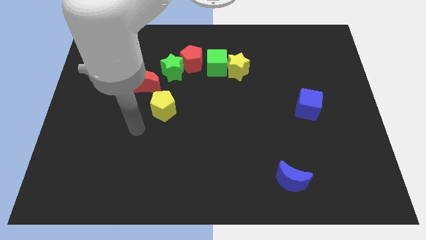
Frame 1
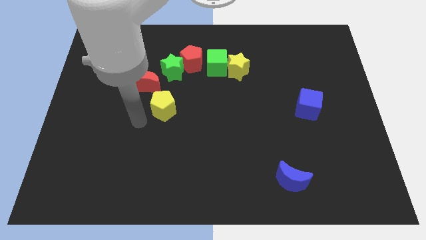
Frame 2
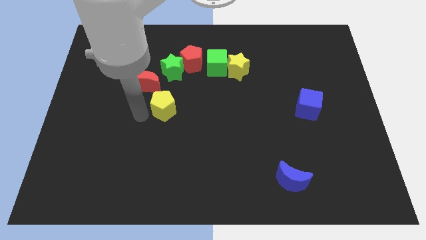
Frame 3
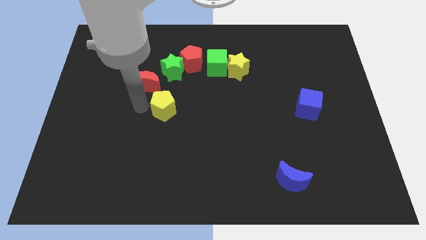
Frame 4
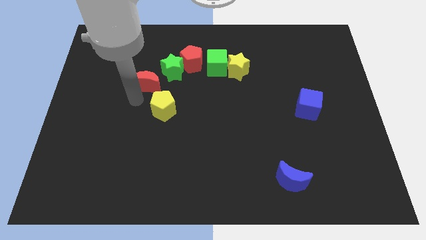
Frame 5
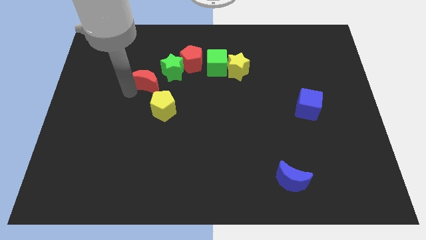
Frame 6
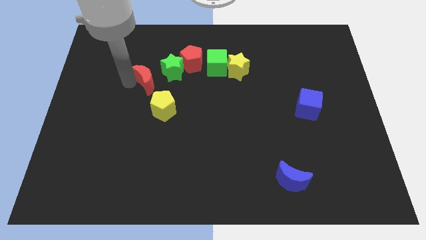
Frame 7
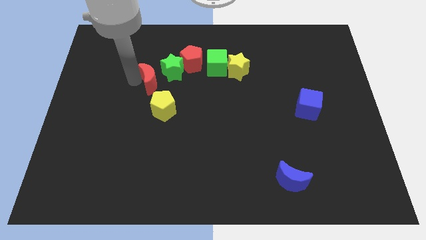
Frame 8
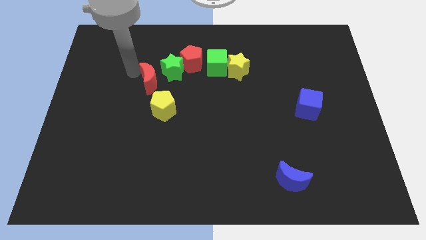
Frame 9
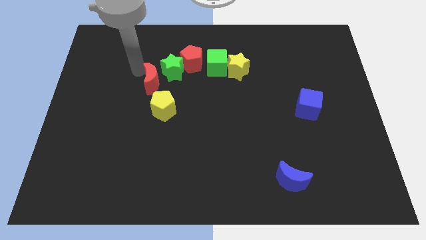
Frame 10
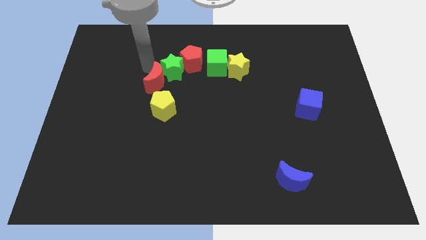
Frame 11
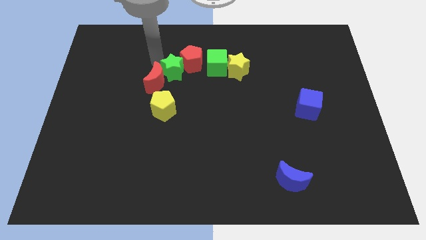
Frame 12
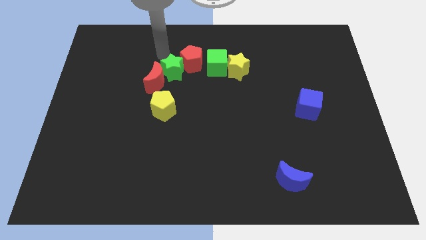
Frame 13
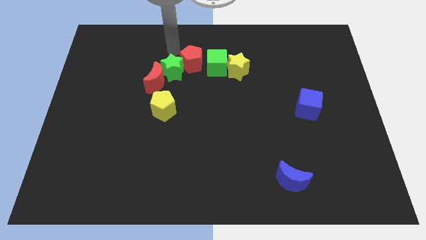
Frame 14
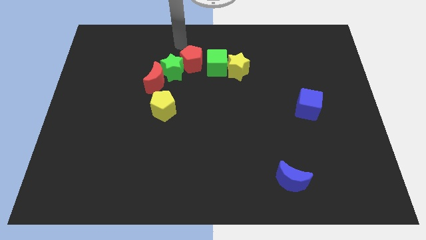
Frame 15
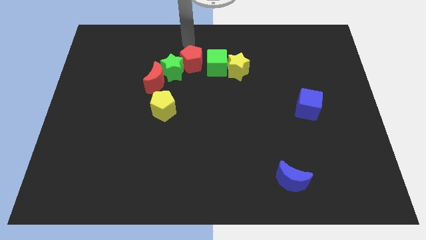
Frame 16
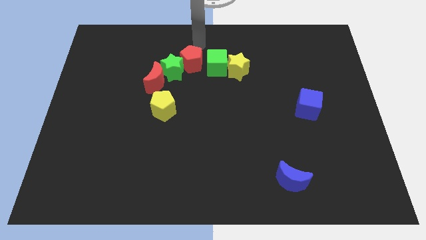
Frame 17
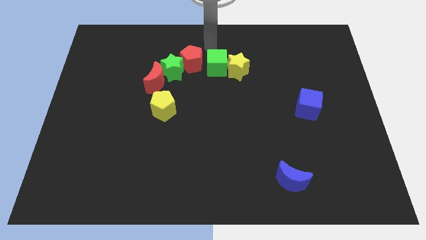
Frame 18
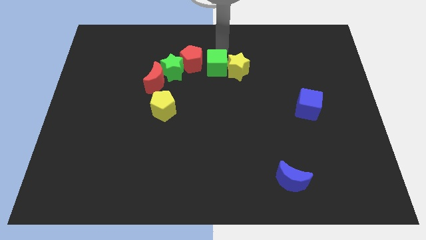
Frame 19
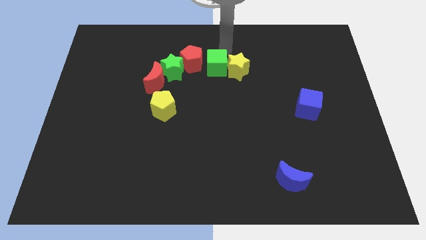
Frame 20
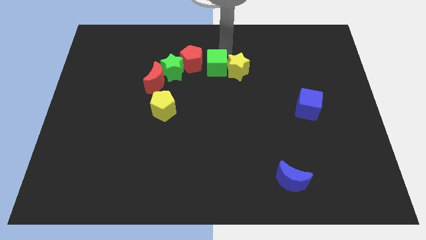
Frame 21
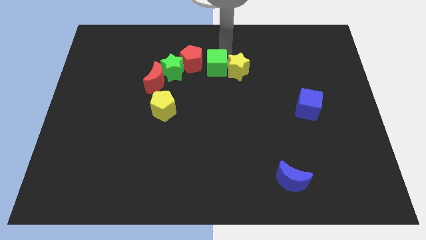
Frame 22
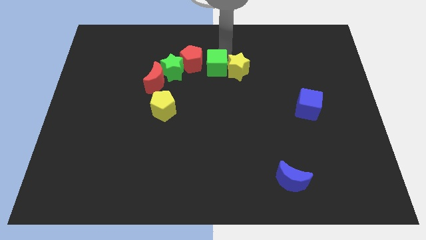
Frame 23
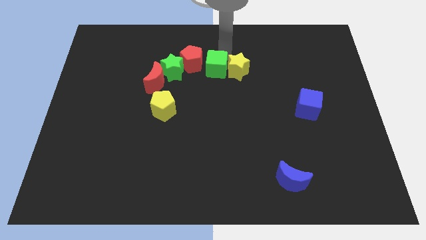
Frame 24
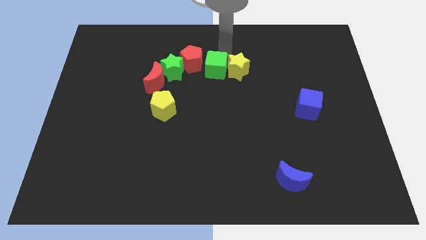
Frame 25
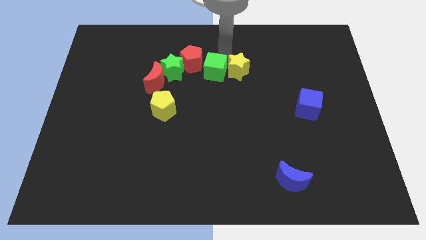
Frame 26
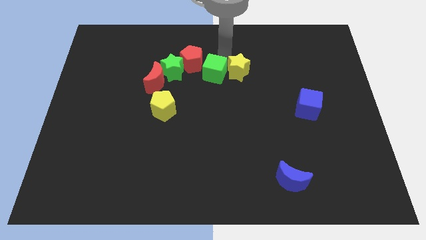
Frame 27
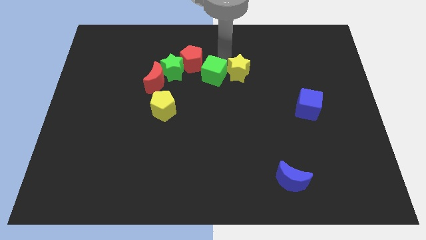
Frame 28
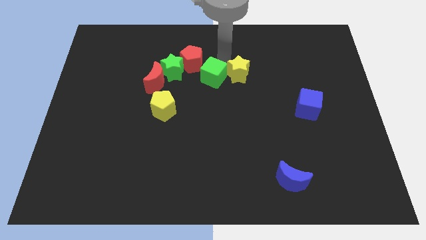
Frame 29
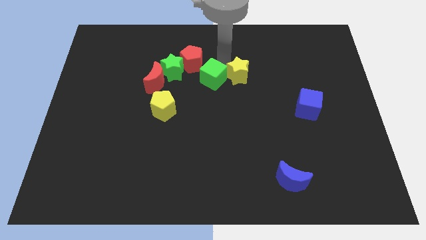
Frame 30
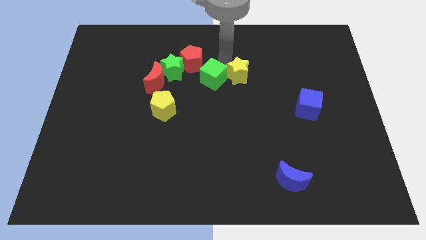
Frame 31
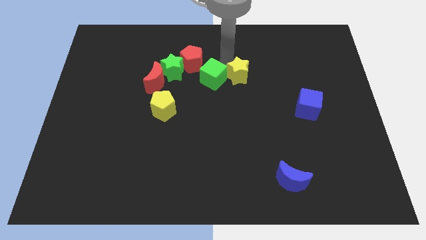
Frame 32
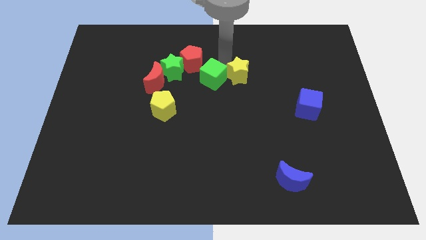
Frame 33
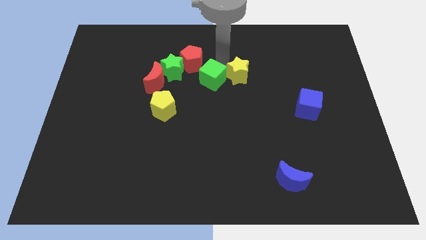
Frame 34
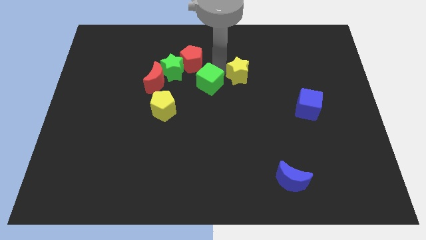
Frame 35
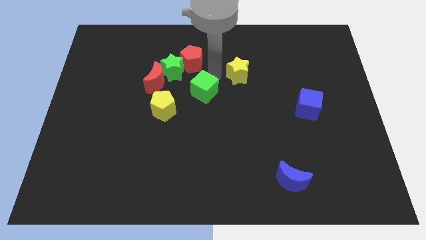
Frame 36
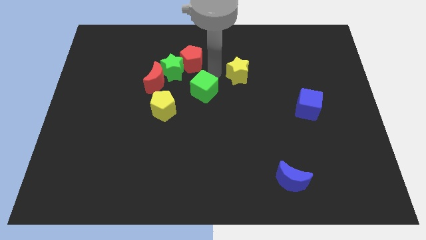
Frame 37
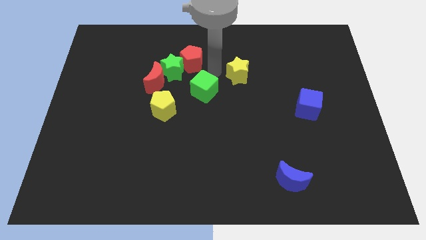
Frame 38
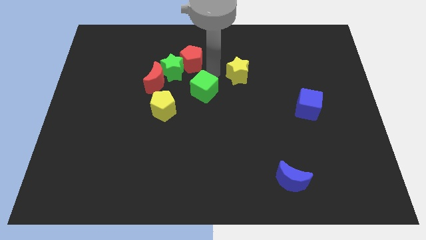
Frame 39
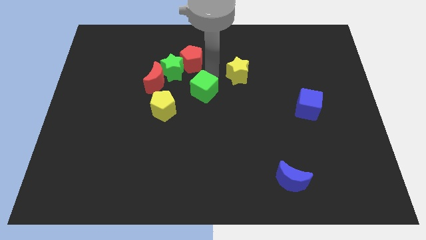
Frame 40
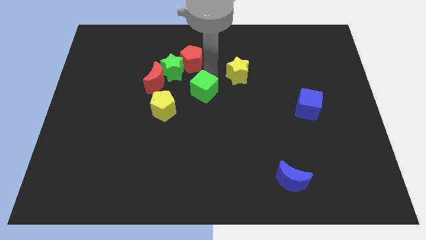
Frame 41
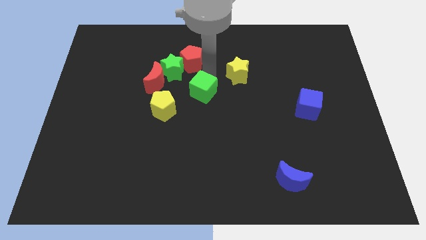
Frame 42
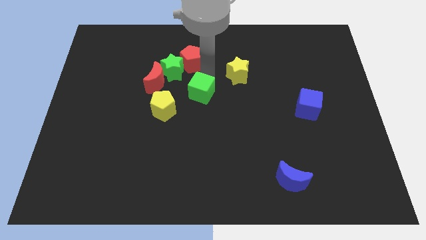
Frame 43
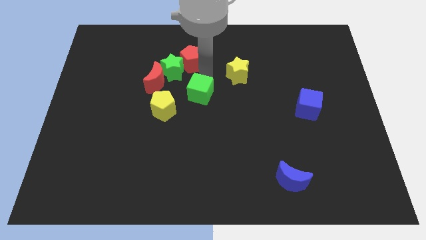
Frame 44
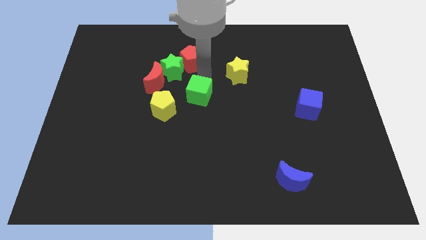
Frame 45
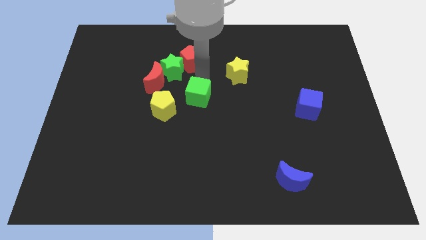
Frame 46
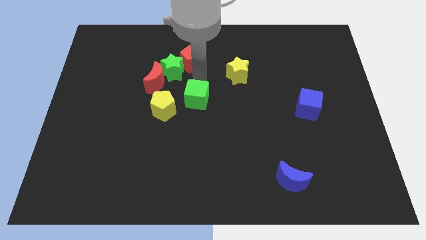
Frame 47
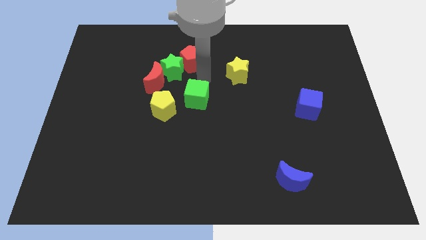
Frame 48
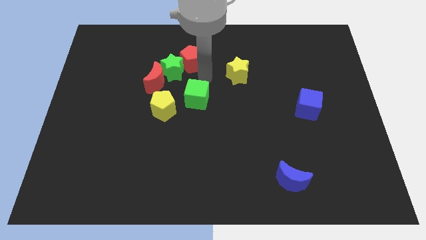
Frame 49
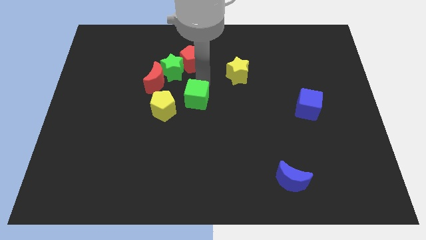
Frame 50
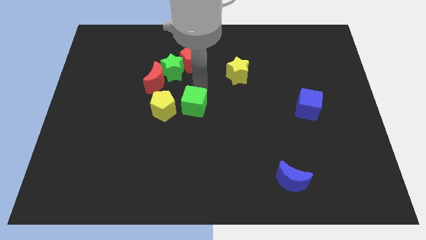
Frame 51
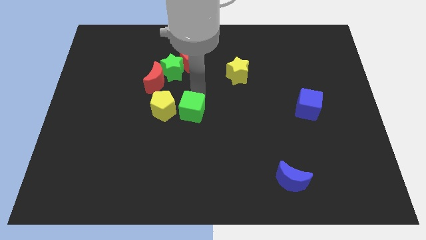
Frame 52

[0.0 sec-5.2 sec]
push the green cube to the bottom right side of the yellow pentagon

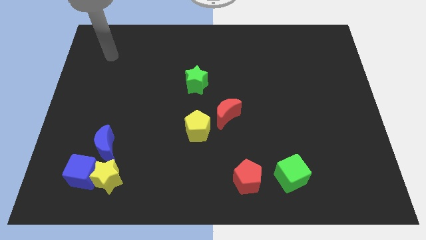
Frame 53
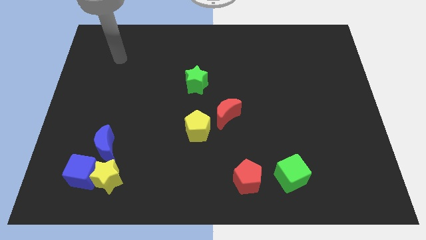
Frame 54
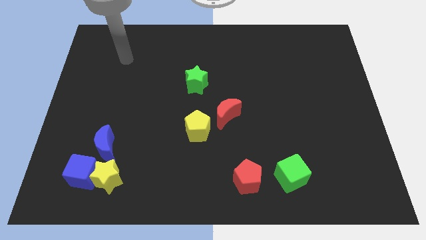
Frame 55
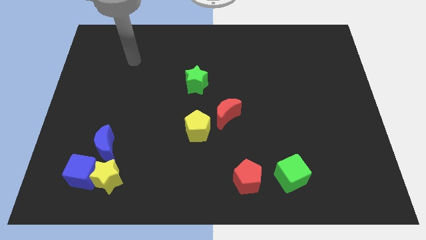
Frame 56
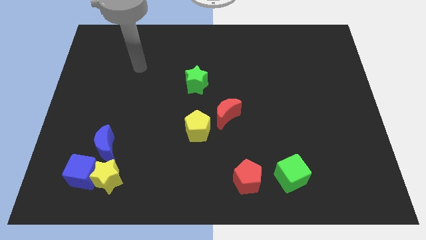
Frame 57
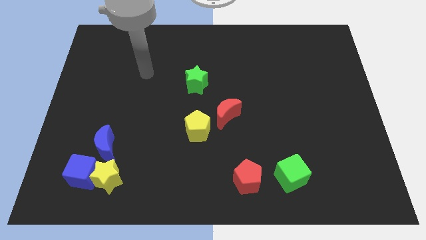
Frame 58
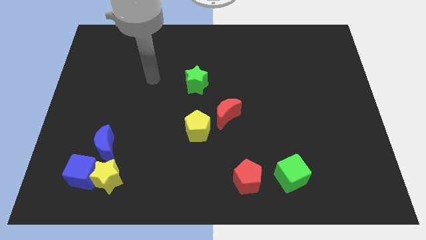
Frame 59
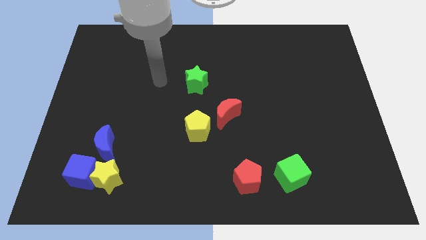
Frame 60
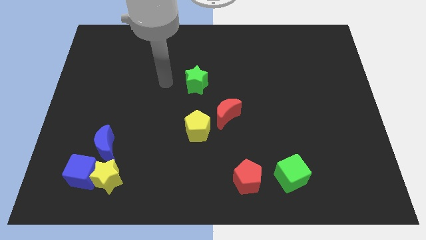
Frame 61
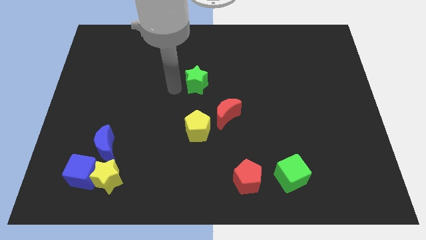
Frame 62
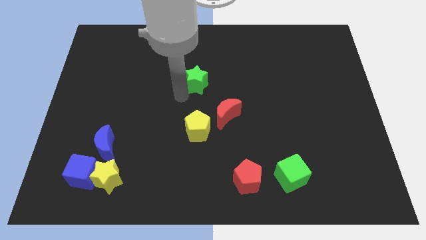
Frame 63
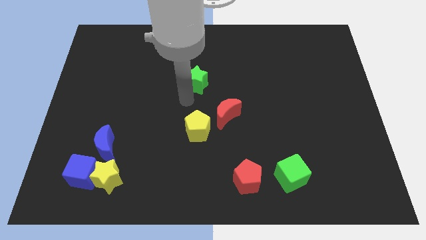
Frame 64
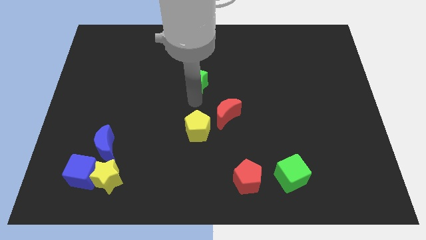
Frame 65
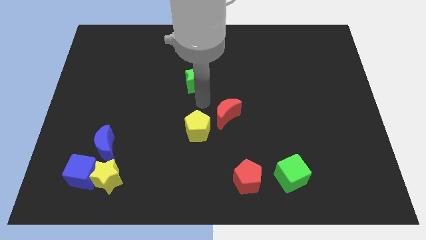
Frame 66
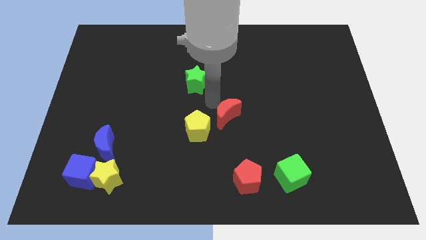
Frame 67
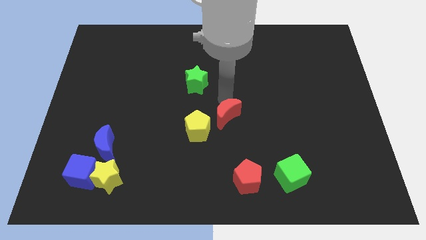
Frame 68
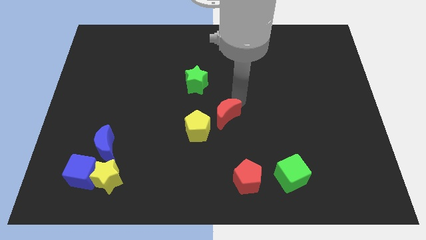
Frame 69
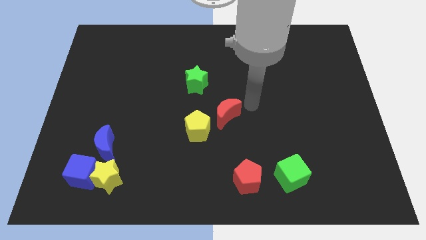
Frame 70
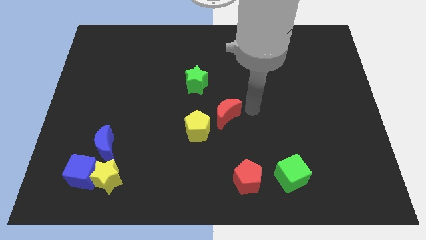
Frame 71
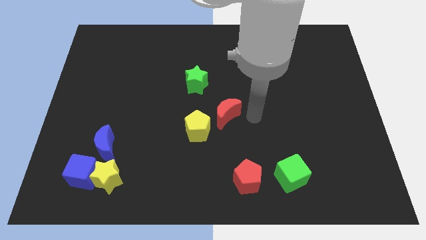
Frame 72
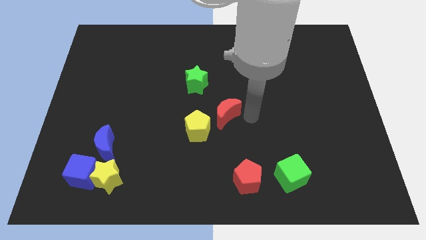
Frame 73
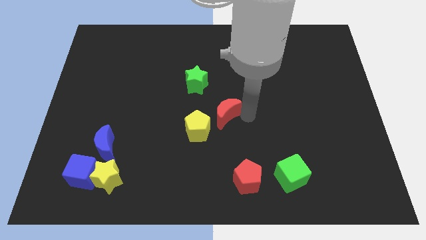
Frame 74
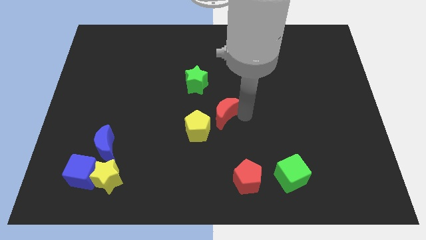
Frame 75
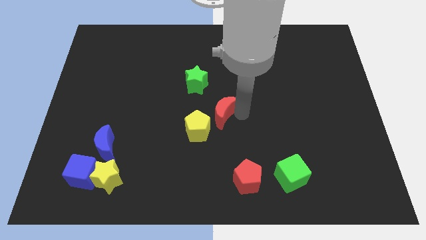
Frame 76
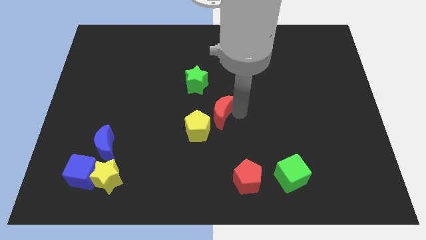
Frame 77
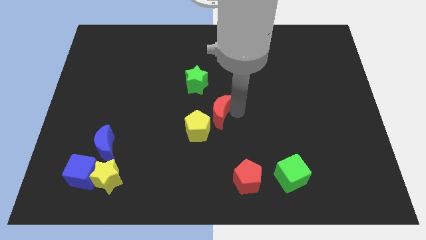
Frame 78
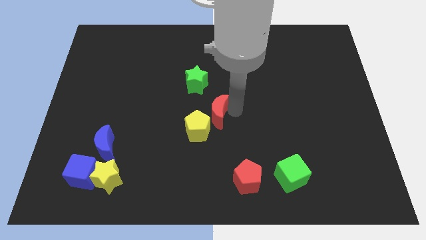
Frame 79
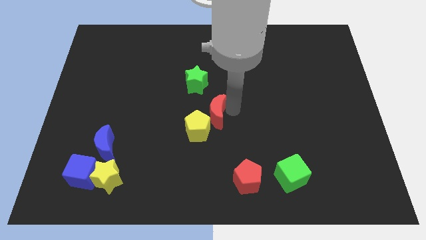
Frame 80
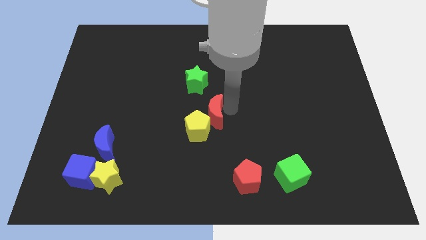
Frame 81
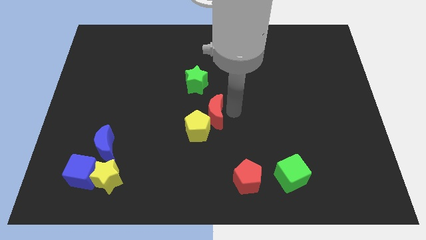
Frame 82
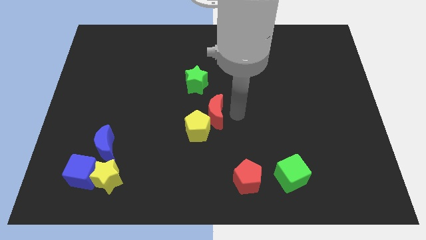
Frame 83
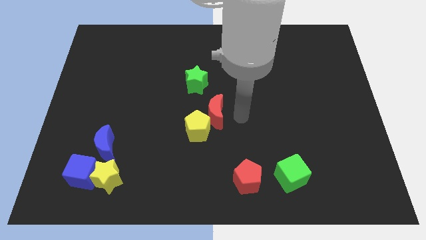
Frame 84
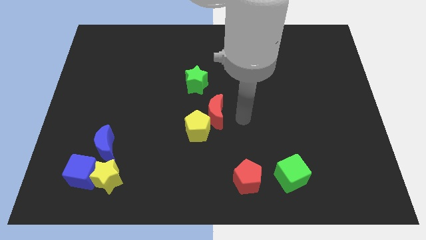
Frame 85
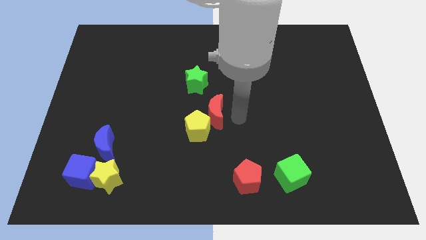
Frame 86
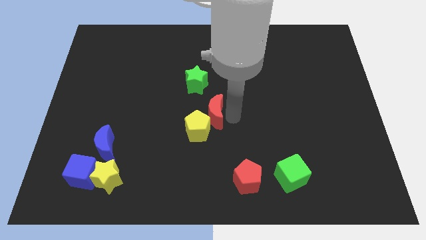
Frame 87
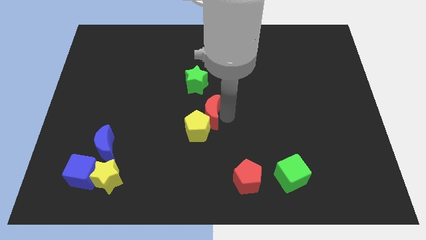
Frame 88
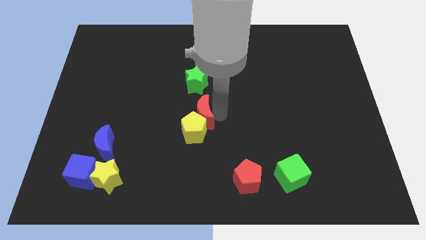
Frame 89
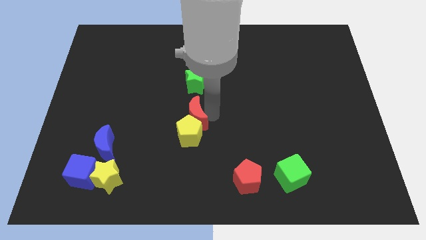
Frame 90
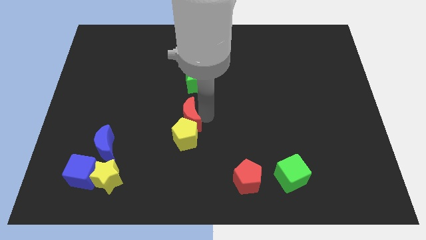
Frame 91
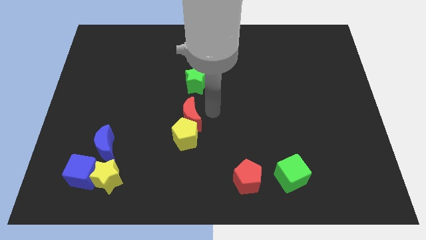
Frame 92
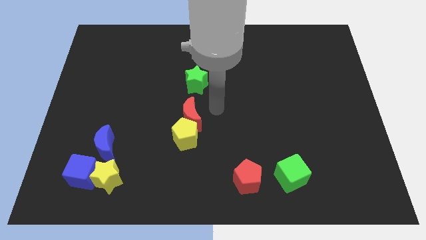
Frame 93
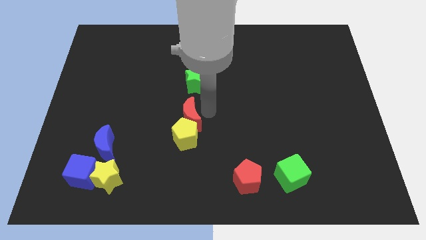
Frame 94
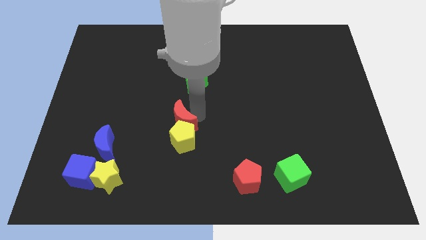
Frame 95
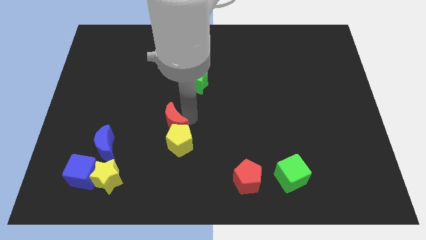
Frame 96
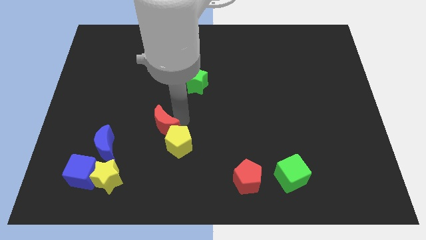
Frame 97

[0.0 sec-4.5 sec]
move the red moon just left of the yellow pentagon
